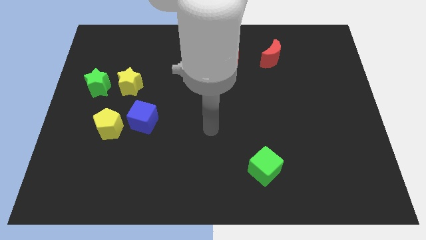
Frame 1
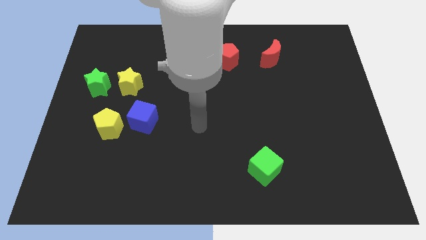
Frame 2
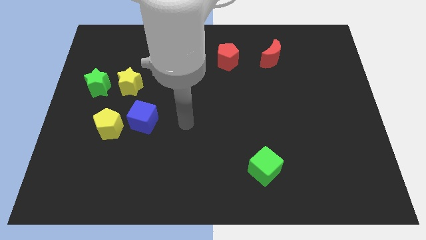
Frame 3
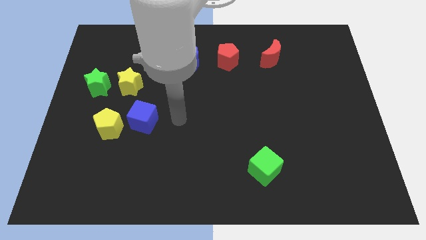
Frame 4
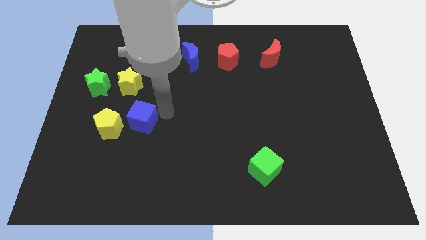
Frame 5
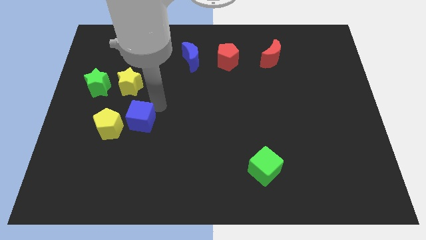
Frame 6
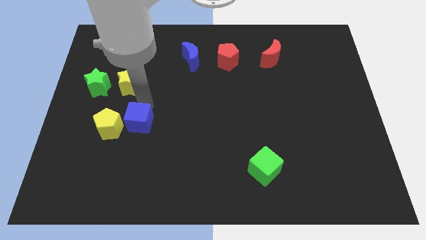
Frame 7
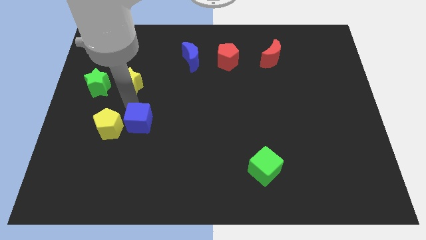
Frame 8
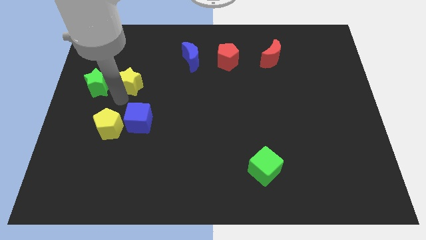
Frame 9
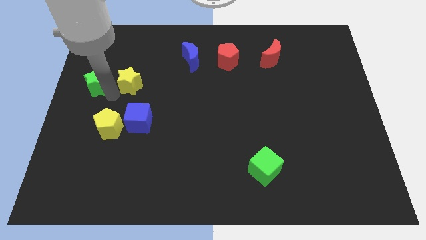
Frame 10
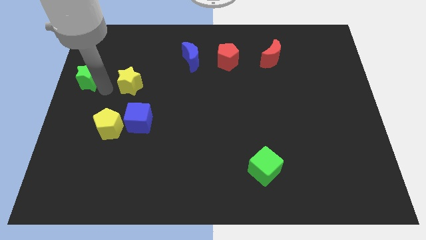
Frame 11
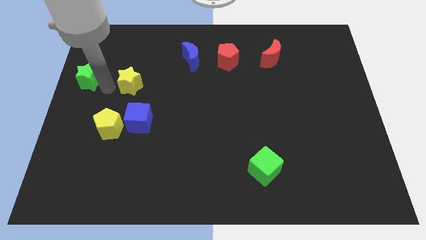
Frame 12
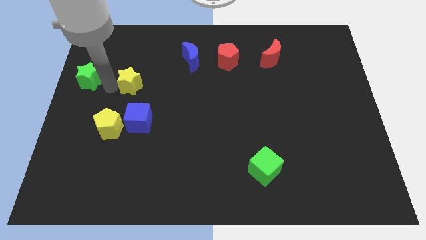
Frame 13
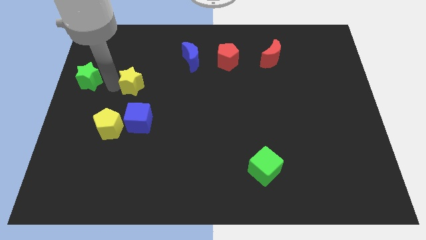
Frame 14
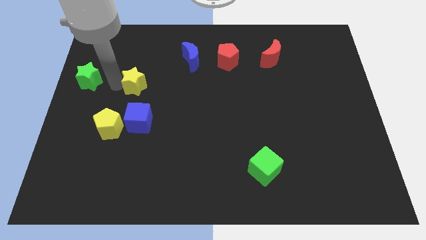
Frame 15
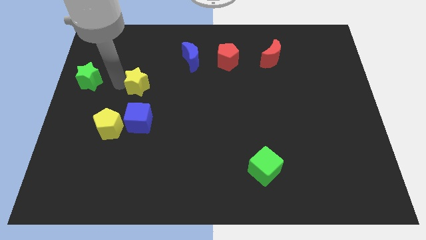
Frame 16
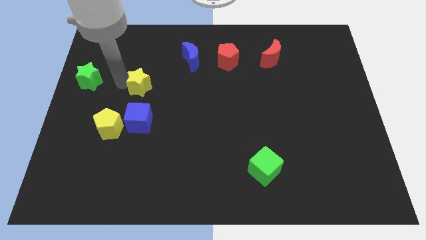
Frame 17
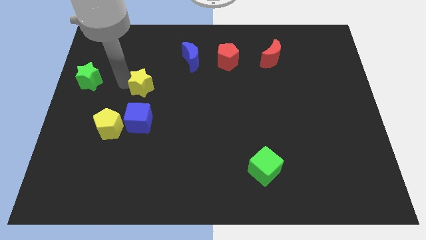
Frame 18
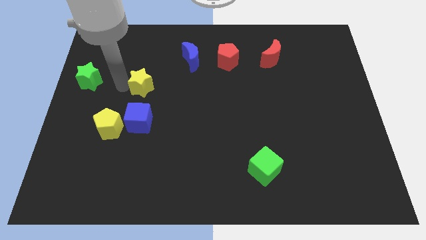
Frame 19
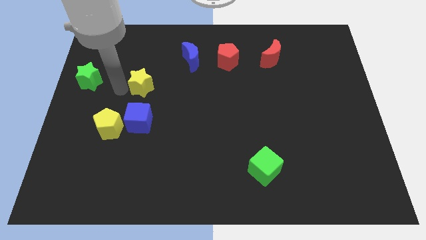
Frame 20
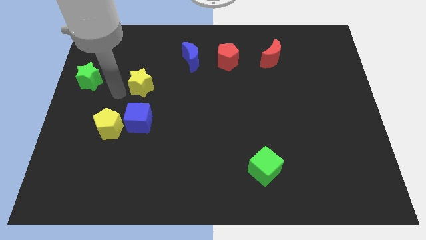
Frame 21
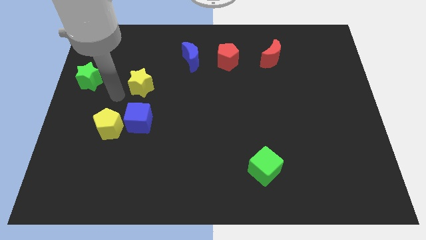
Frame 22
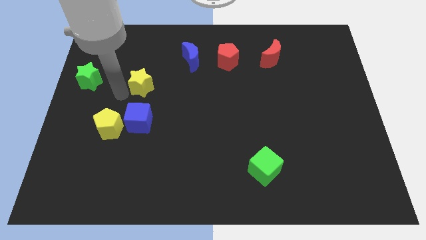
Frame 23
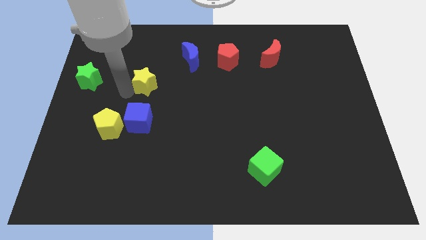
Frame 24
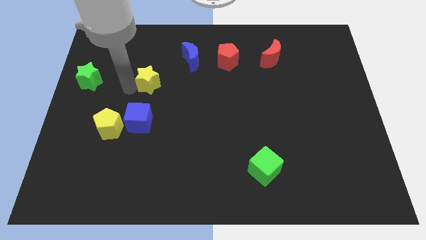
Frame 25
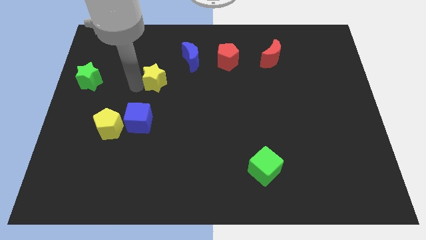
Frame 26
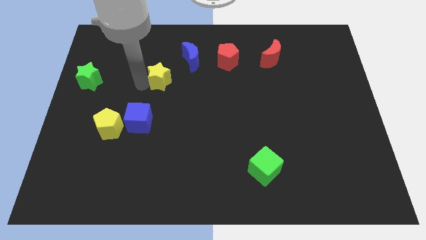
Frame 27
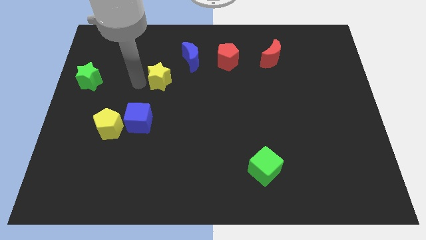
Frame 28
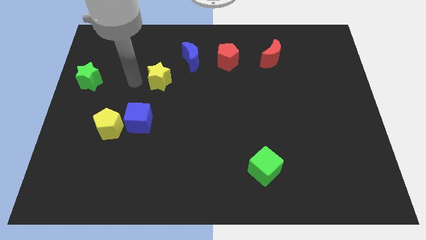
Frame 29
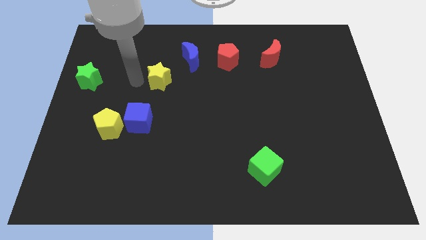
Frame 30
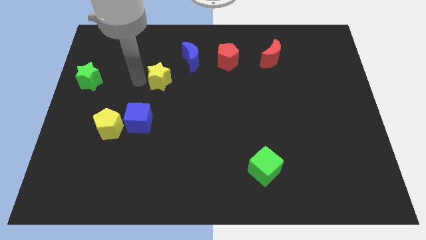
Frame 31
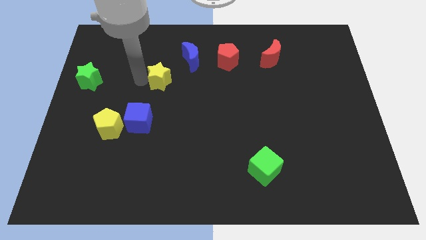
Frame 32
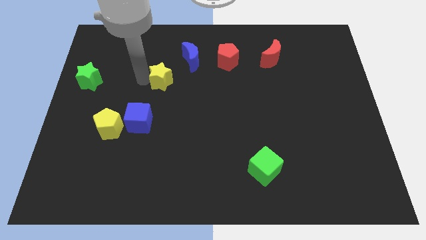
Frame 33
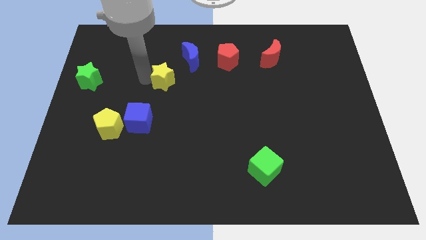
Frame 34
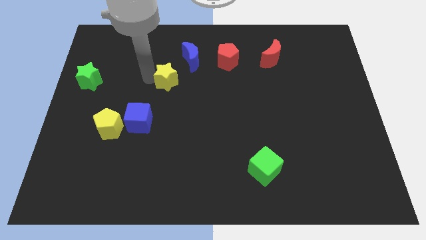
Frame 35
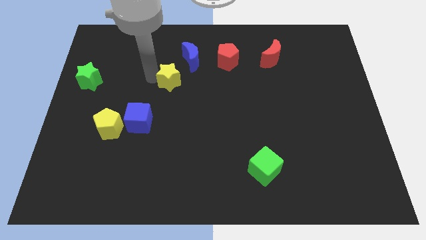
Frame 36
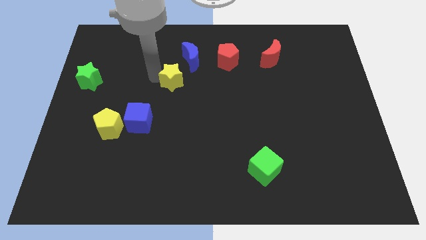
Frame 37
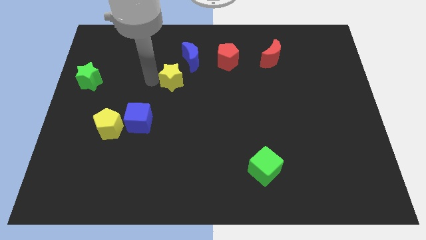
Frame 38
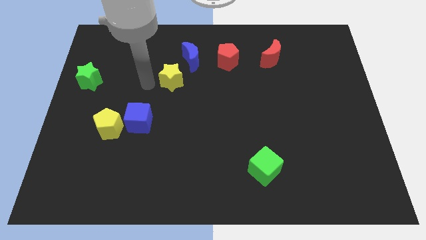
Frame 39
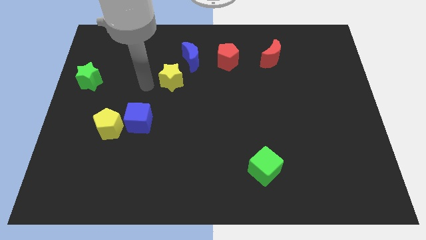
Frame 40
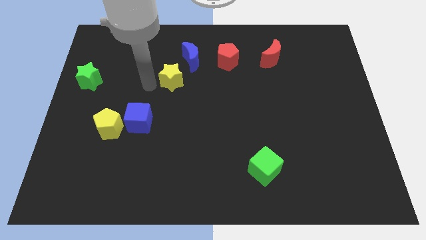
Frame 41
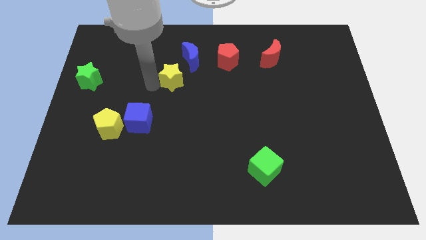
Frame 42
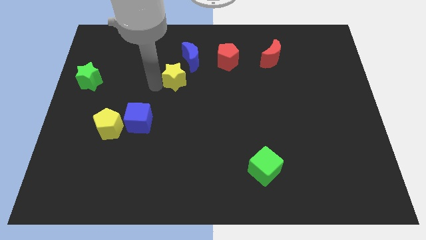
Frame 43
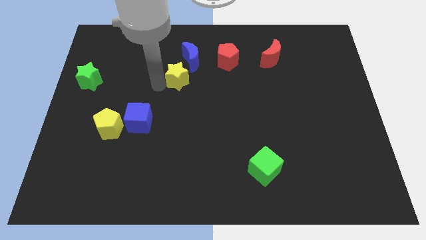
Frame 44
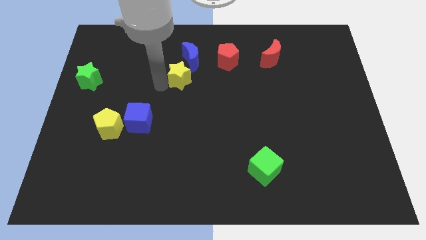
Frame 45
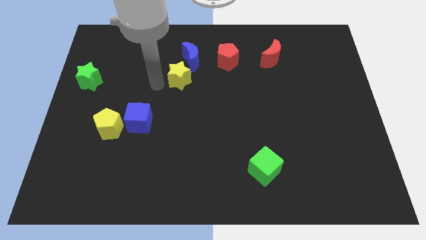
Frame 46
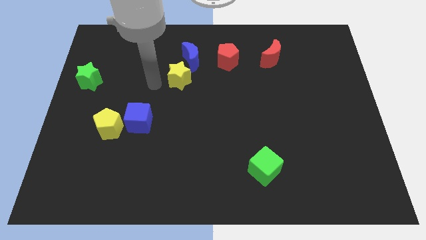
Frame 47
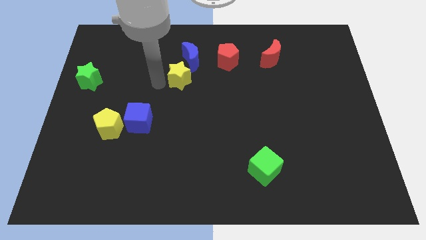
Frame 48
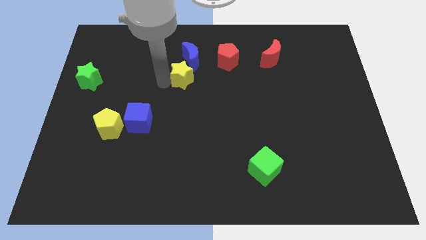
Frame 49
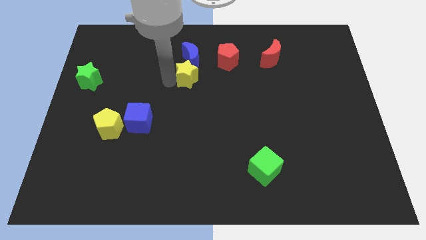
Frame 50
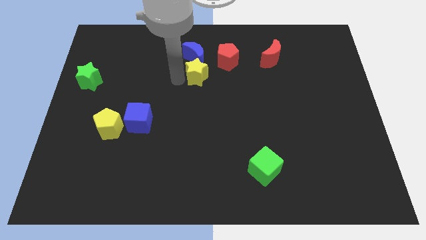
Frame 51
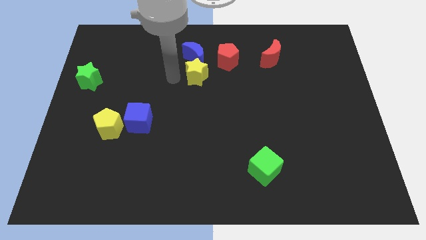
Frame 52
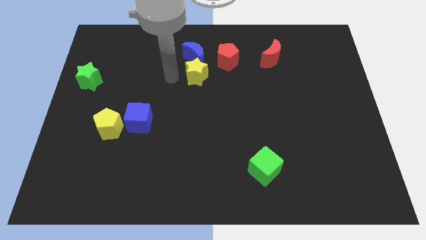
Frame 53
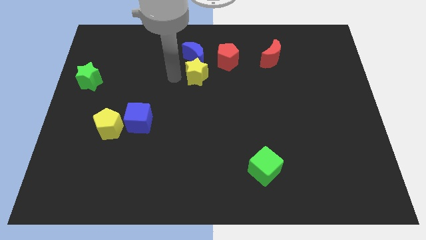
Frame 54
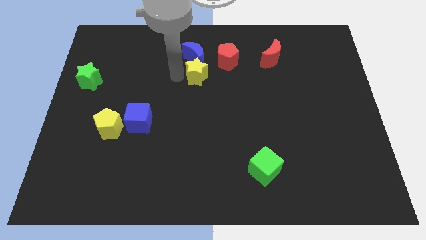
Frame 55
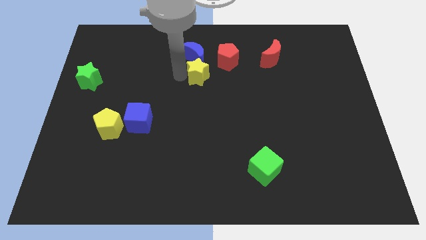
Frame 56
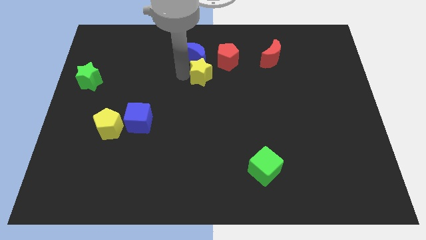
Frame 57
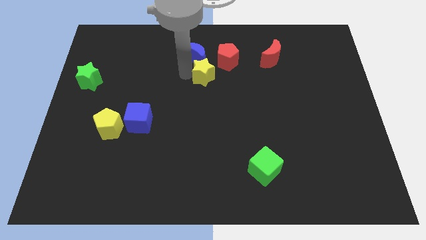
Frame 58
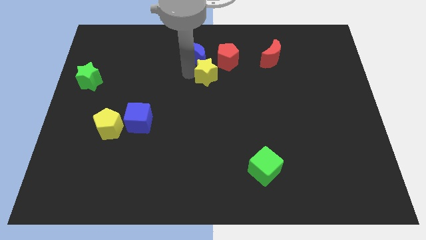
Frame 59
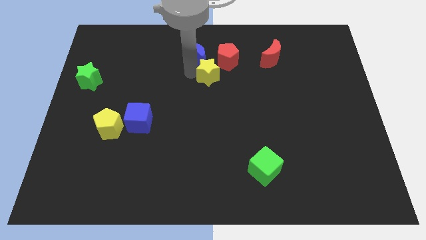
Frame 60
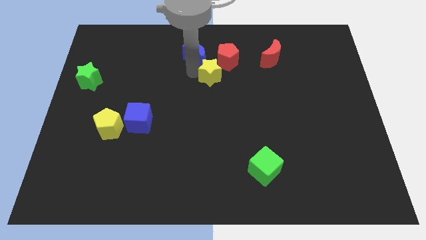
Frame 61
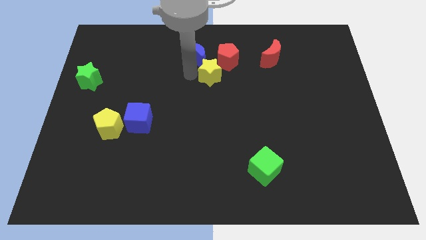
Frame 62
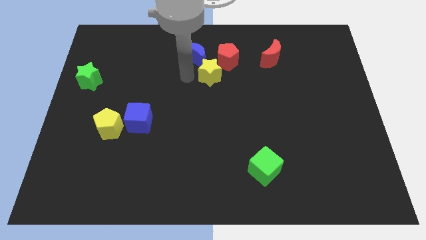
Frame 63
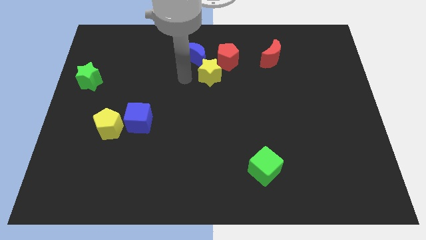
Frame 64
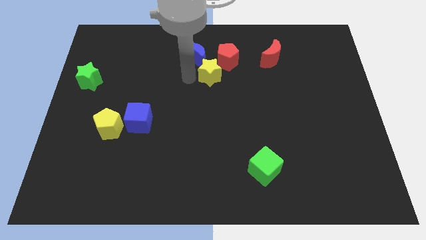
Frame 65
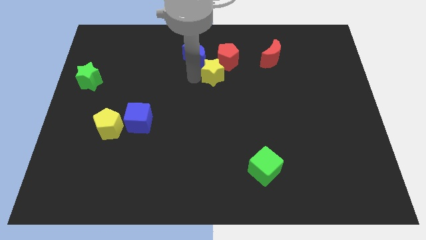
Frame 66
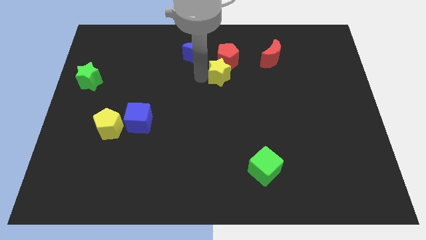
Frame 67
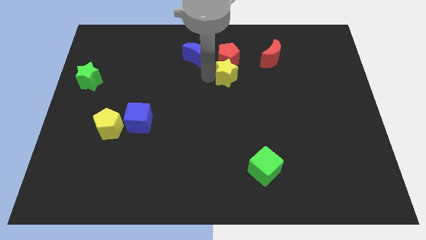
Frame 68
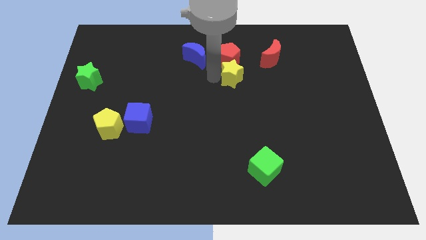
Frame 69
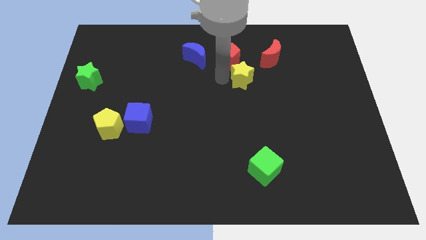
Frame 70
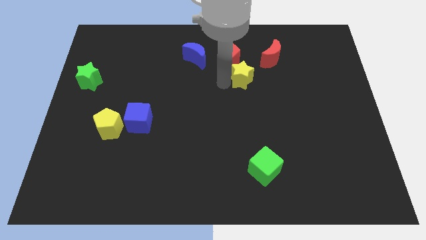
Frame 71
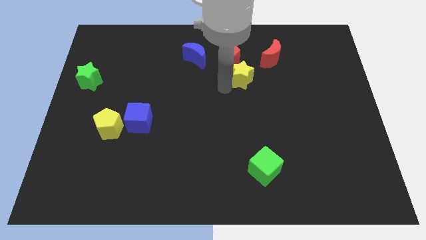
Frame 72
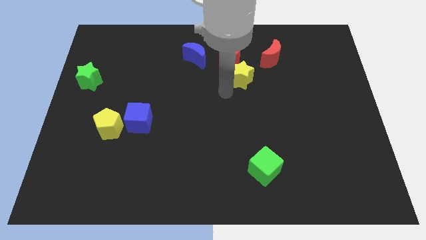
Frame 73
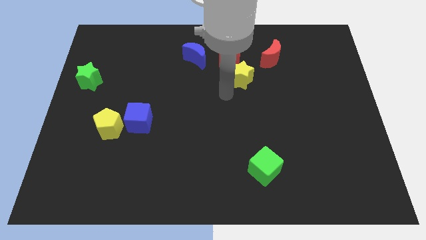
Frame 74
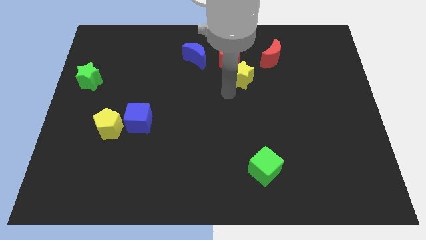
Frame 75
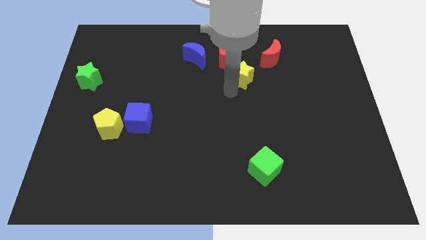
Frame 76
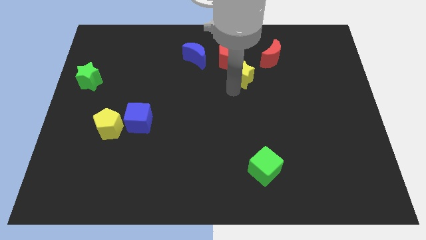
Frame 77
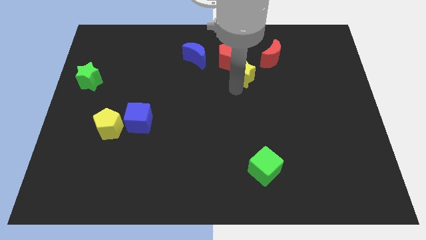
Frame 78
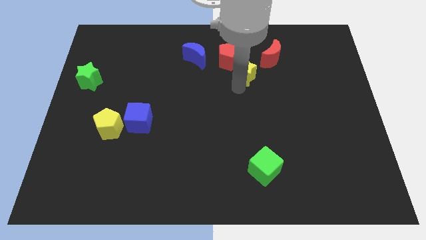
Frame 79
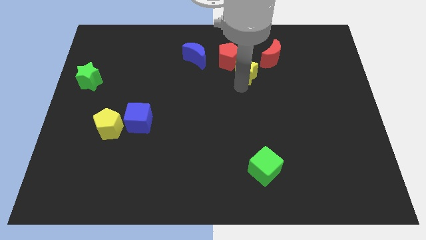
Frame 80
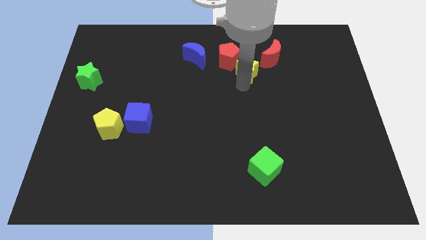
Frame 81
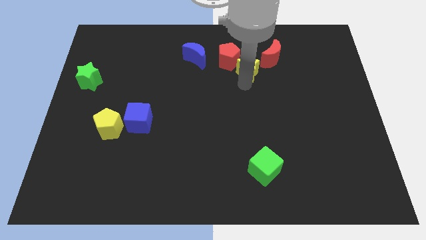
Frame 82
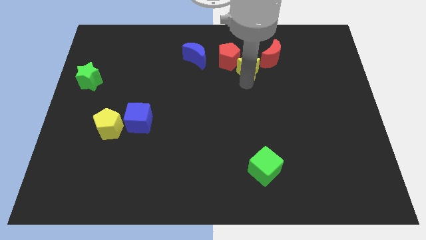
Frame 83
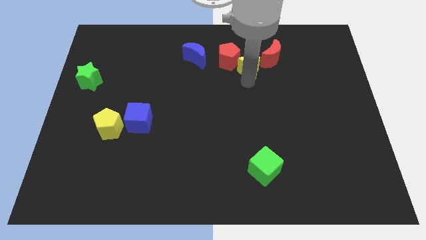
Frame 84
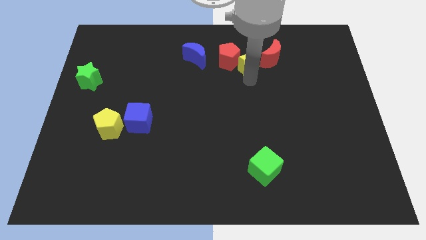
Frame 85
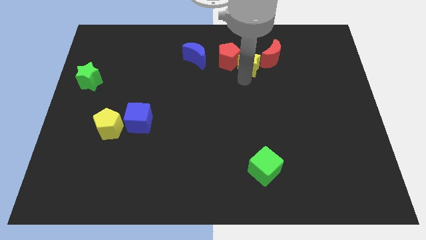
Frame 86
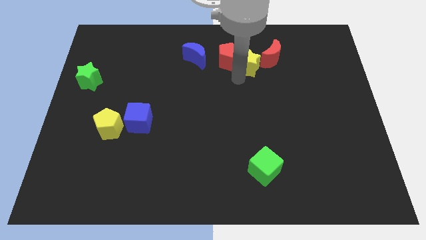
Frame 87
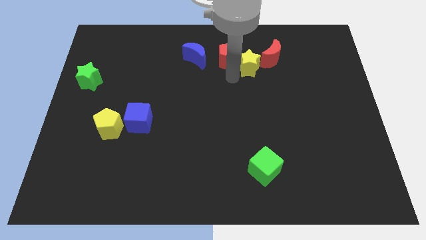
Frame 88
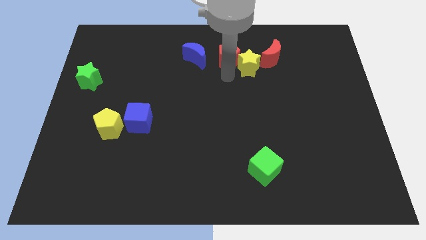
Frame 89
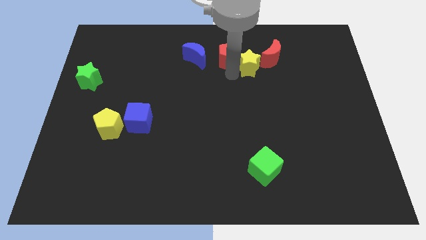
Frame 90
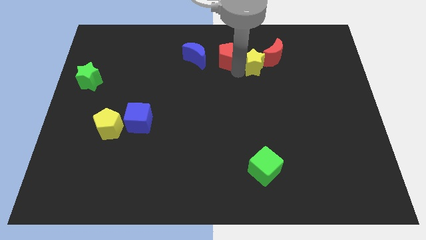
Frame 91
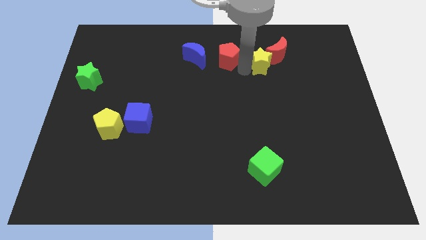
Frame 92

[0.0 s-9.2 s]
push the yellow star to the red moon
